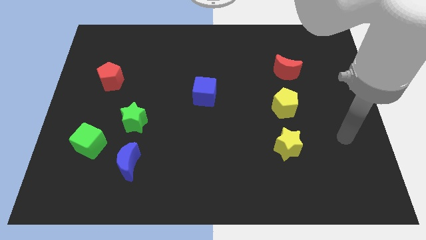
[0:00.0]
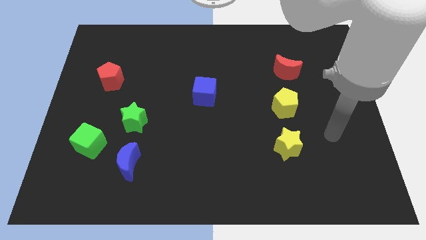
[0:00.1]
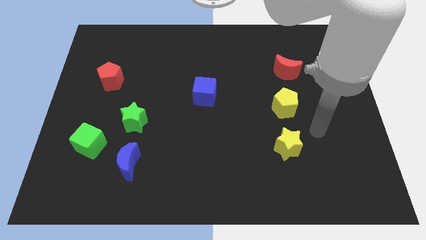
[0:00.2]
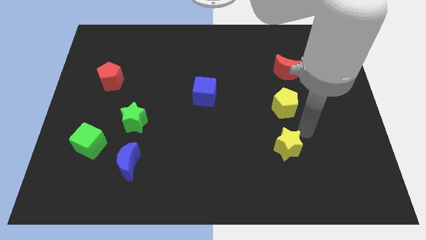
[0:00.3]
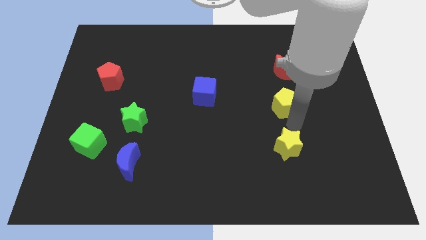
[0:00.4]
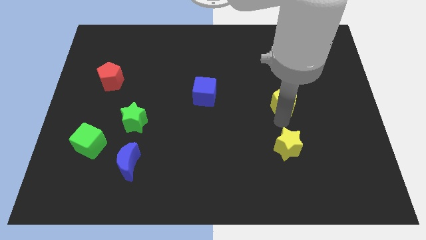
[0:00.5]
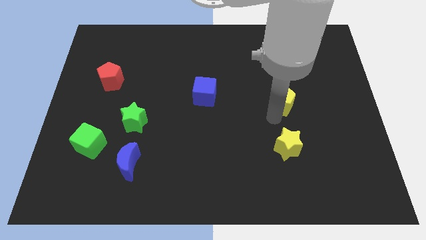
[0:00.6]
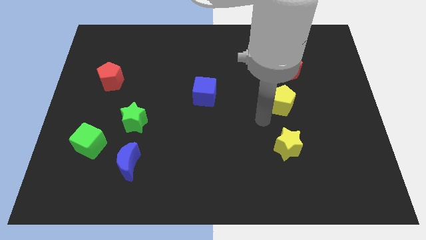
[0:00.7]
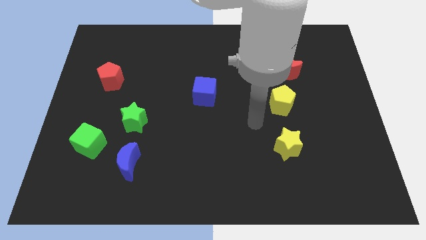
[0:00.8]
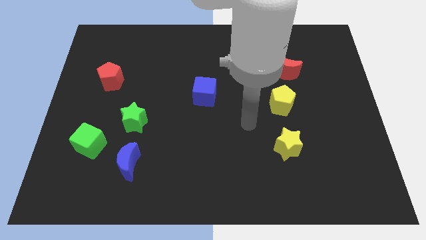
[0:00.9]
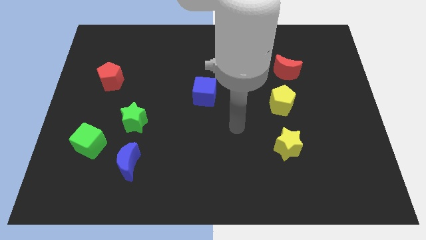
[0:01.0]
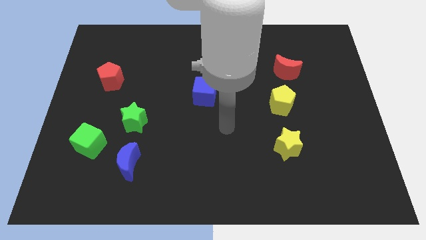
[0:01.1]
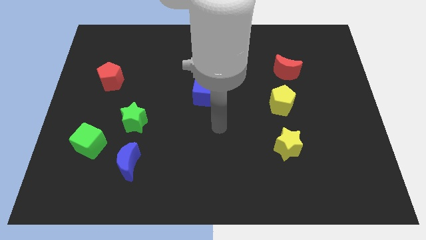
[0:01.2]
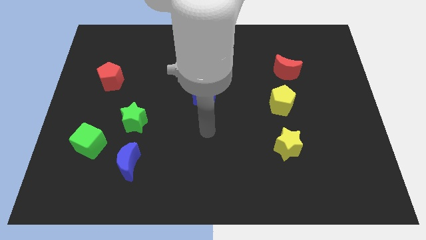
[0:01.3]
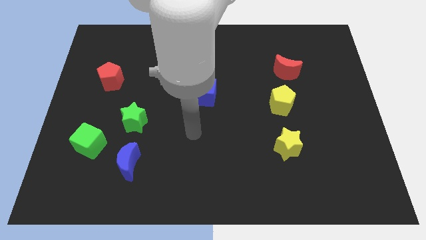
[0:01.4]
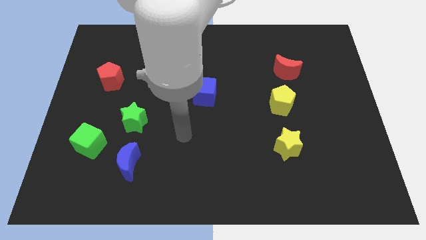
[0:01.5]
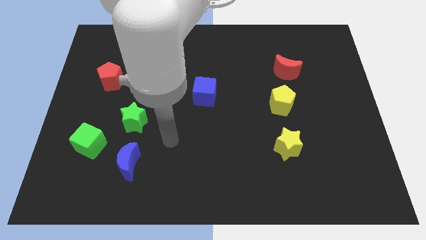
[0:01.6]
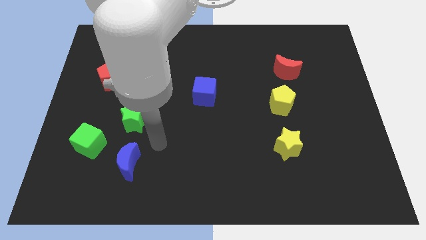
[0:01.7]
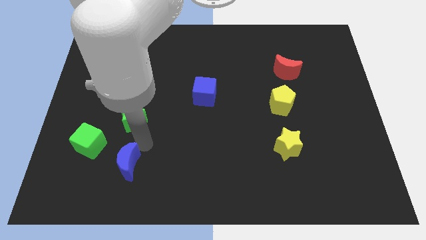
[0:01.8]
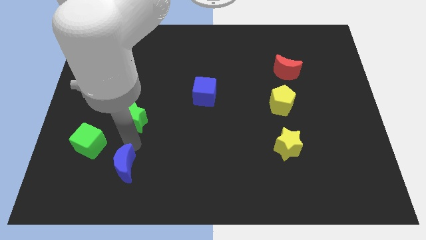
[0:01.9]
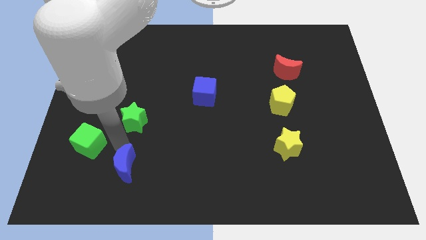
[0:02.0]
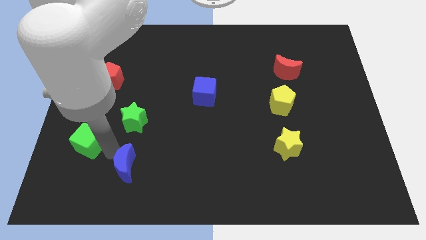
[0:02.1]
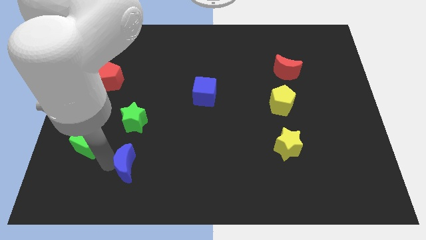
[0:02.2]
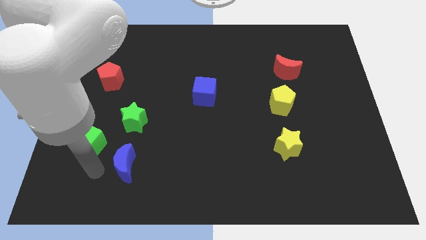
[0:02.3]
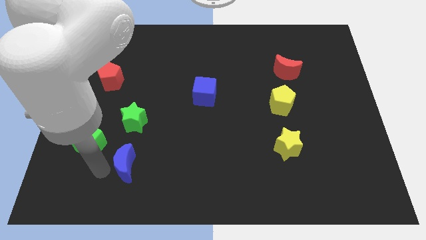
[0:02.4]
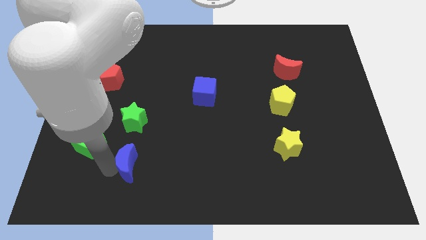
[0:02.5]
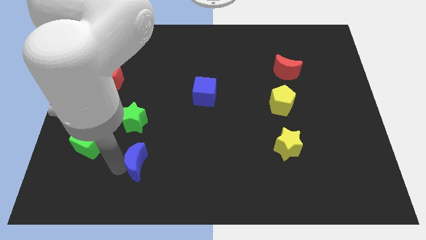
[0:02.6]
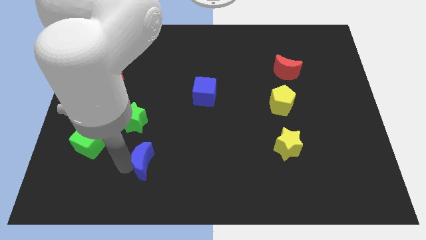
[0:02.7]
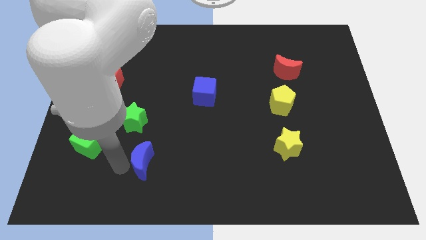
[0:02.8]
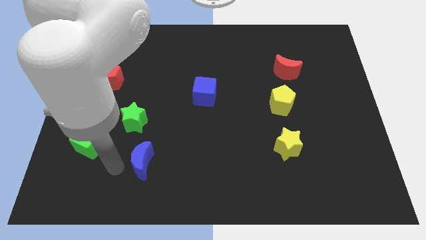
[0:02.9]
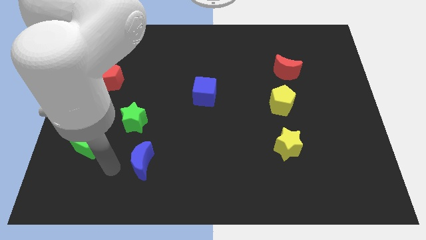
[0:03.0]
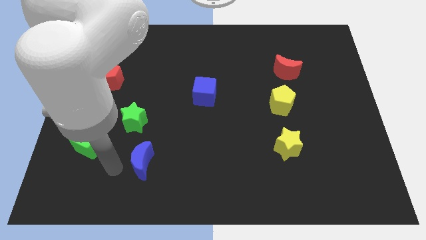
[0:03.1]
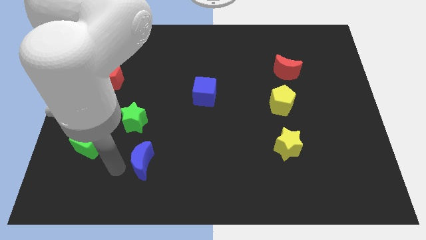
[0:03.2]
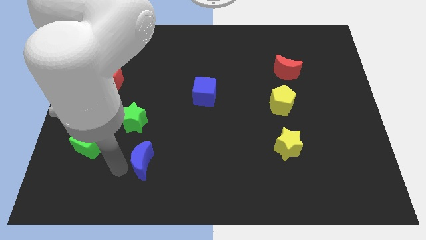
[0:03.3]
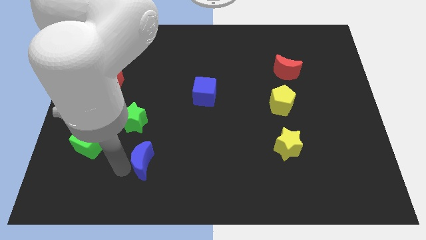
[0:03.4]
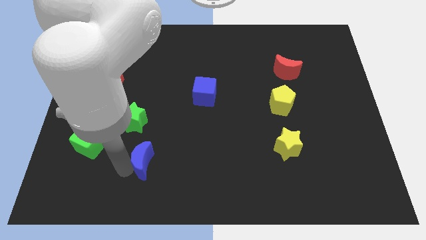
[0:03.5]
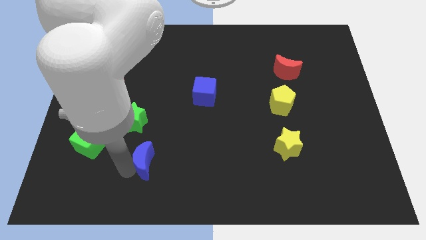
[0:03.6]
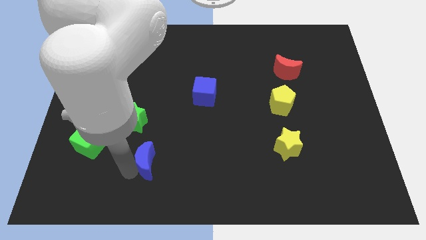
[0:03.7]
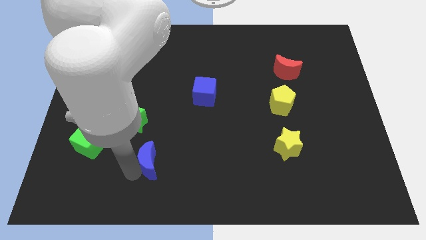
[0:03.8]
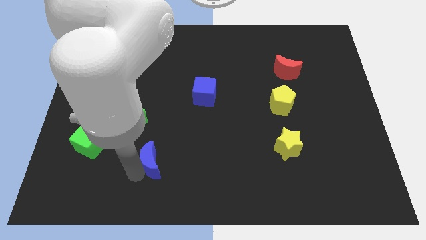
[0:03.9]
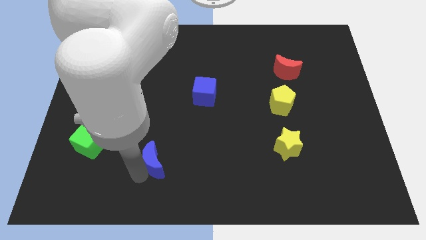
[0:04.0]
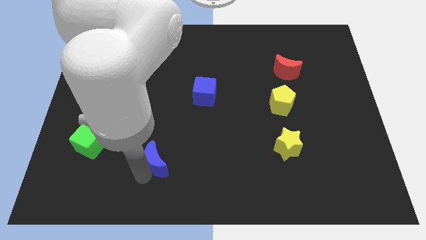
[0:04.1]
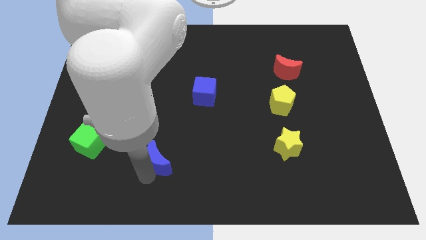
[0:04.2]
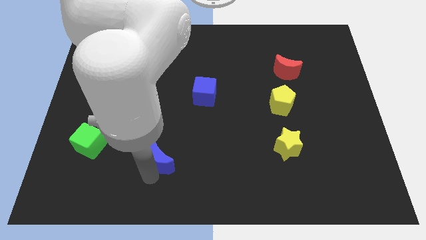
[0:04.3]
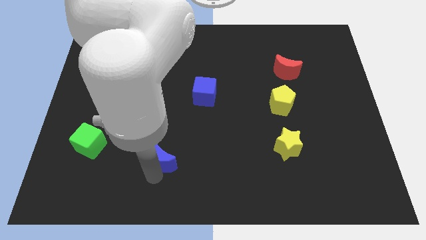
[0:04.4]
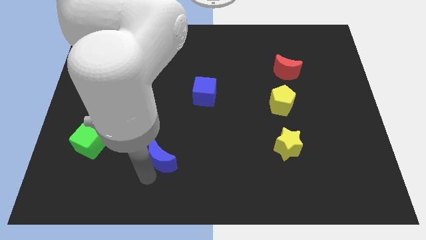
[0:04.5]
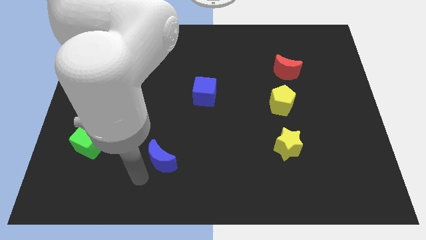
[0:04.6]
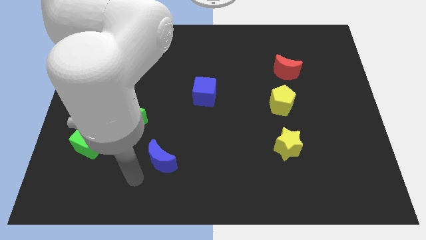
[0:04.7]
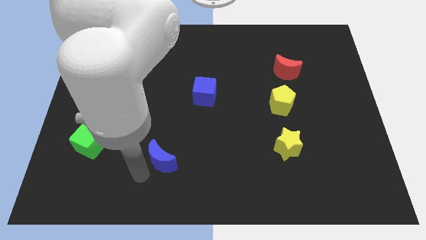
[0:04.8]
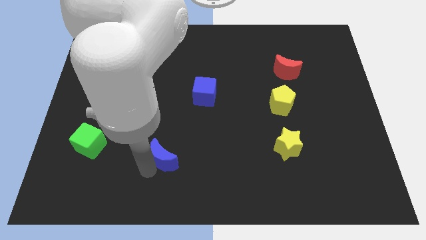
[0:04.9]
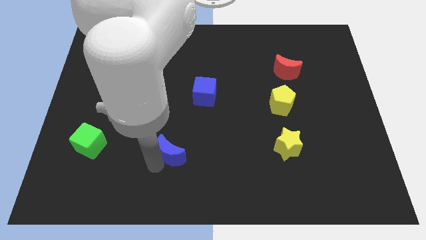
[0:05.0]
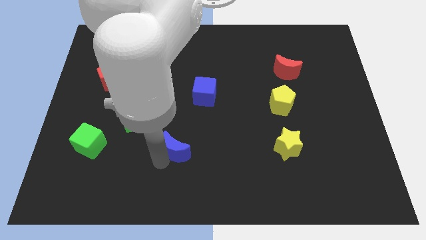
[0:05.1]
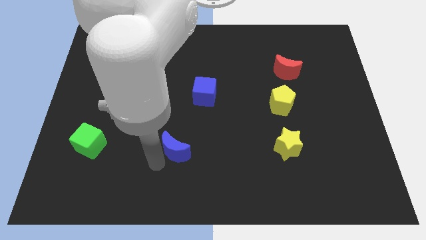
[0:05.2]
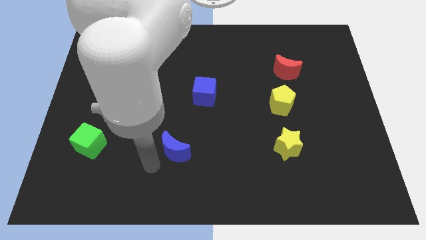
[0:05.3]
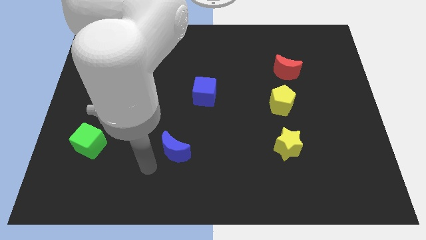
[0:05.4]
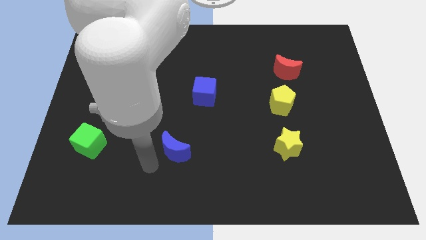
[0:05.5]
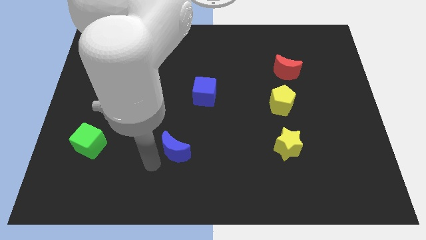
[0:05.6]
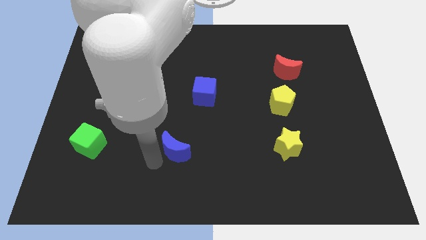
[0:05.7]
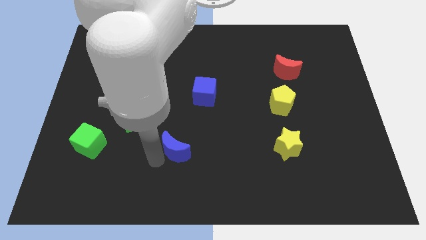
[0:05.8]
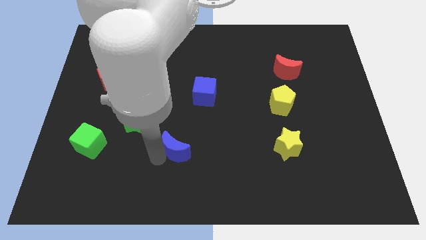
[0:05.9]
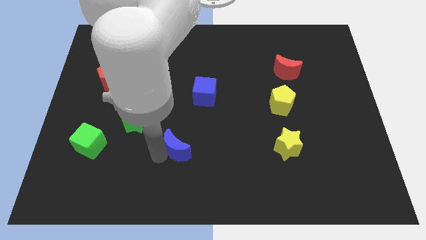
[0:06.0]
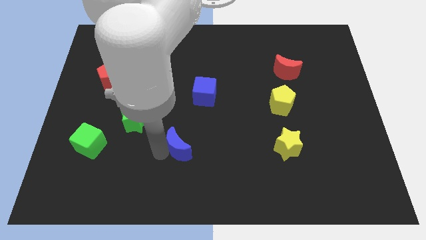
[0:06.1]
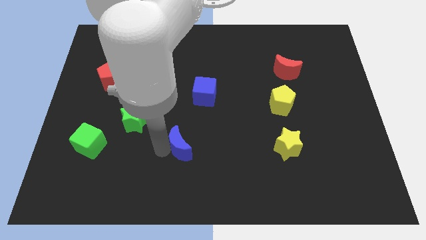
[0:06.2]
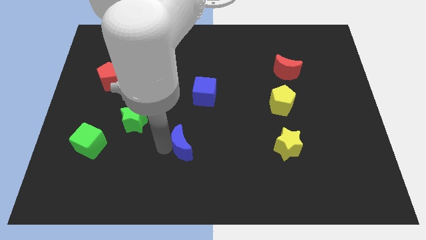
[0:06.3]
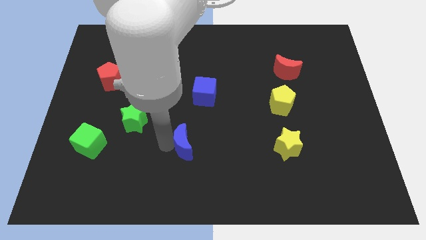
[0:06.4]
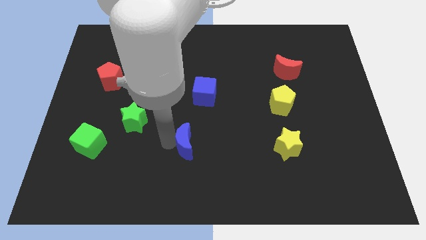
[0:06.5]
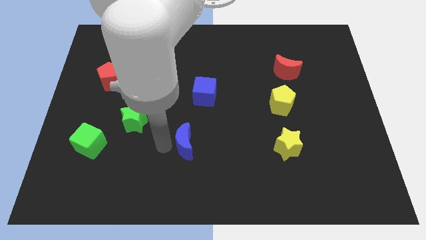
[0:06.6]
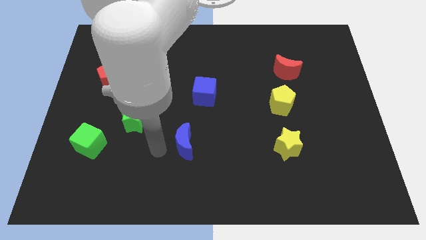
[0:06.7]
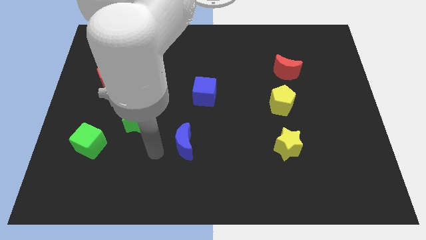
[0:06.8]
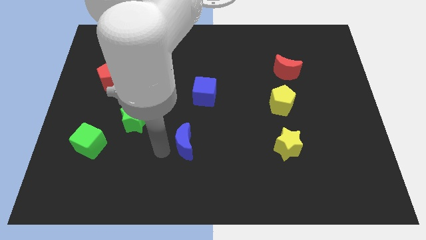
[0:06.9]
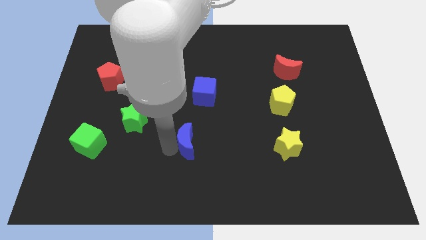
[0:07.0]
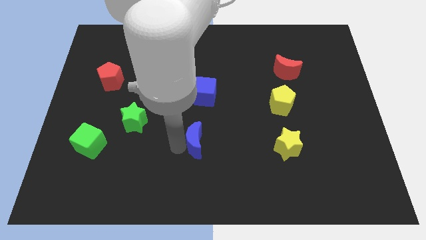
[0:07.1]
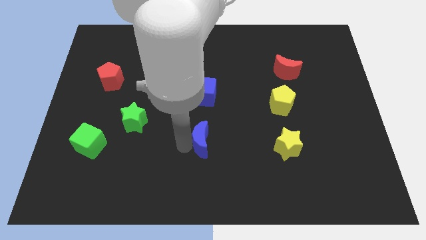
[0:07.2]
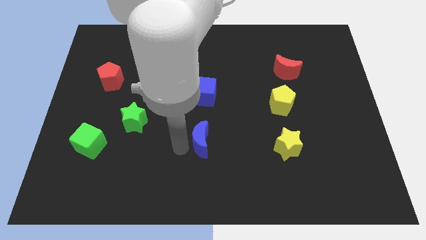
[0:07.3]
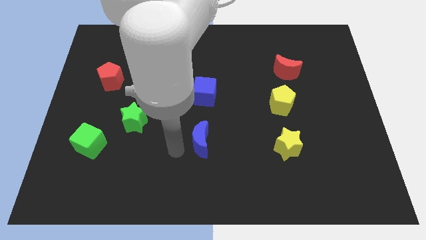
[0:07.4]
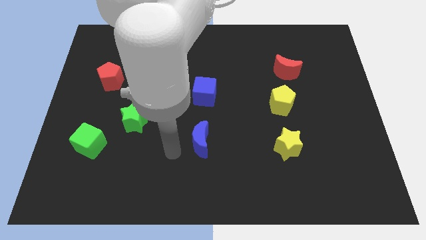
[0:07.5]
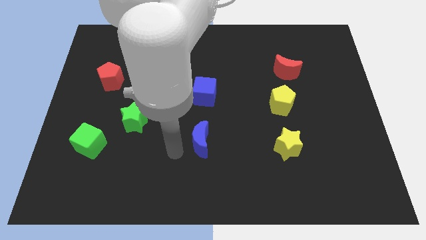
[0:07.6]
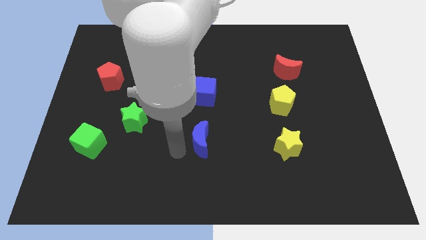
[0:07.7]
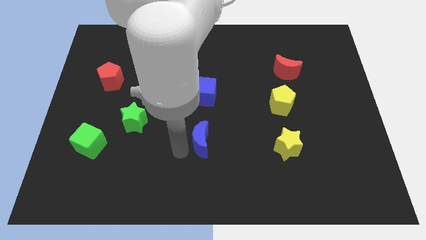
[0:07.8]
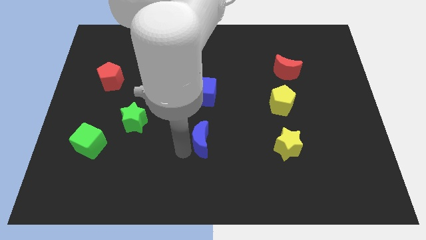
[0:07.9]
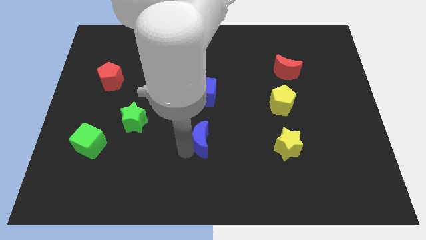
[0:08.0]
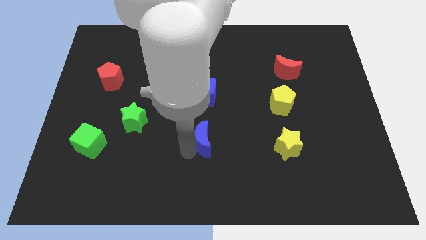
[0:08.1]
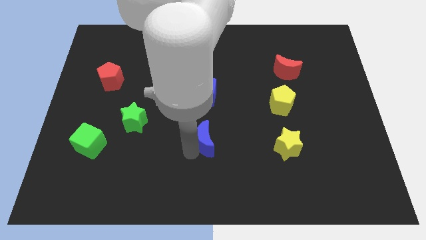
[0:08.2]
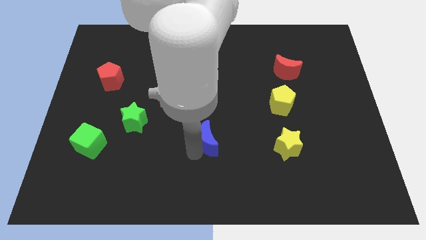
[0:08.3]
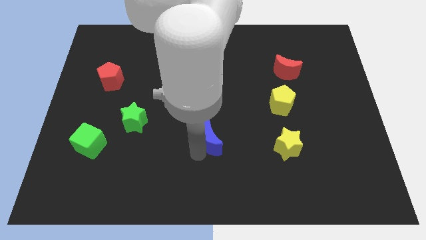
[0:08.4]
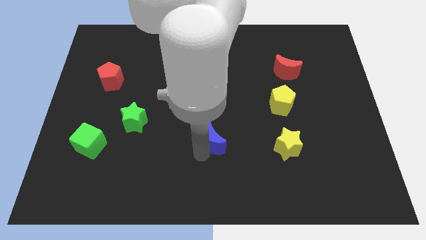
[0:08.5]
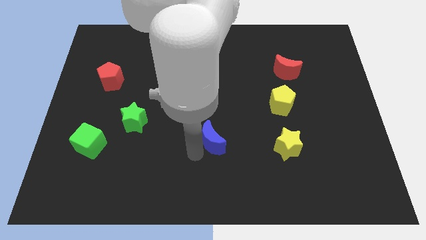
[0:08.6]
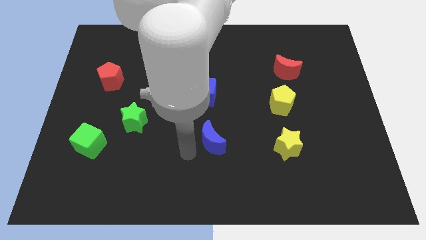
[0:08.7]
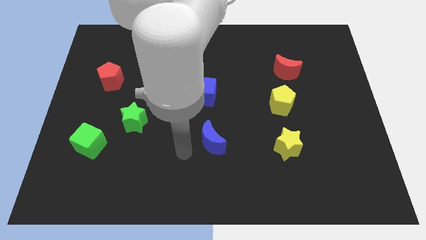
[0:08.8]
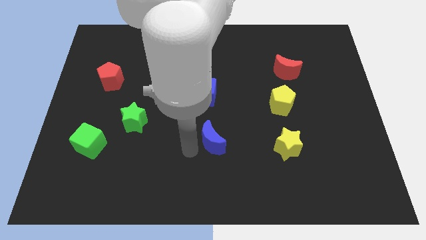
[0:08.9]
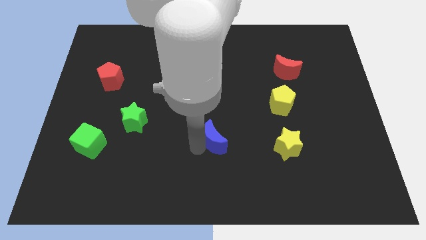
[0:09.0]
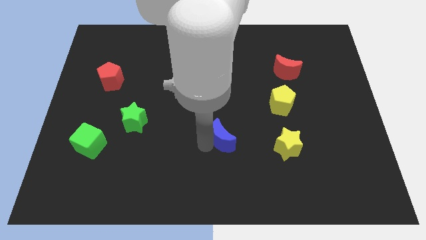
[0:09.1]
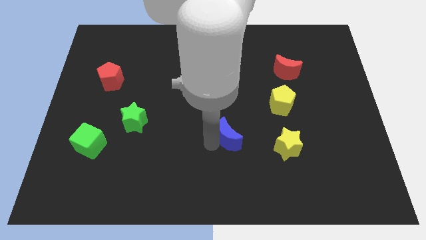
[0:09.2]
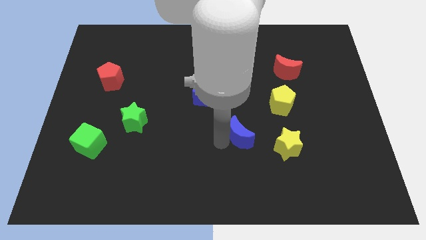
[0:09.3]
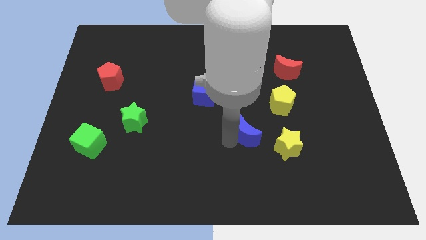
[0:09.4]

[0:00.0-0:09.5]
slide the blue moon to the bottom left side of the yellow pentagon
